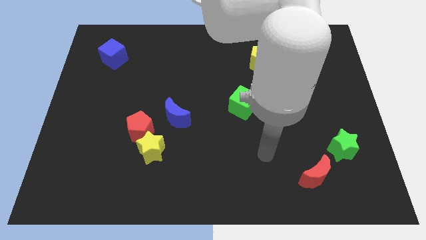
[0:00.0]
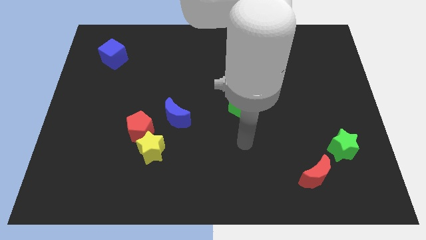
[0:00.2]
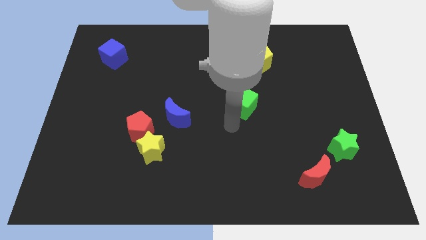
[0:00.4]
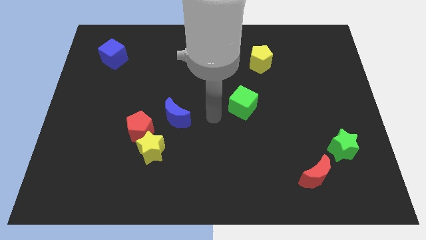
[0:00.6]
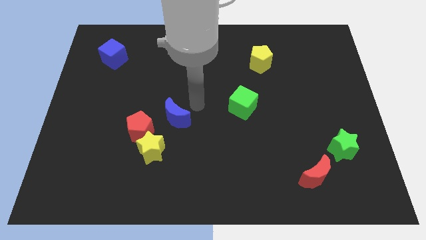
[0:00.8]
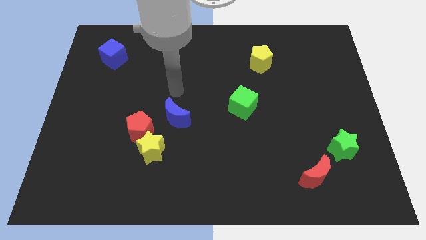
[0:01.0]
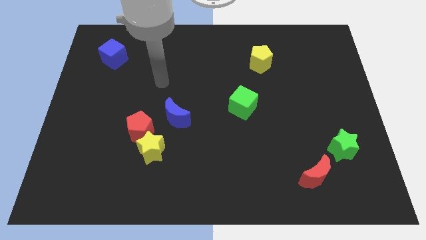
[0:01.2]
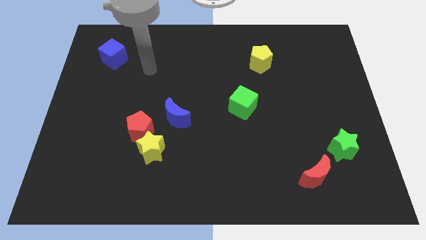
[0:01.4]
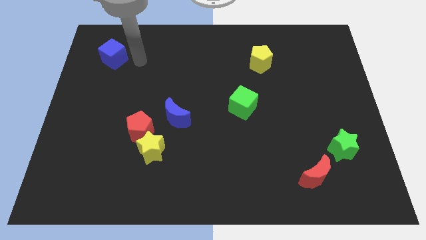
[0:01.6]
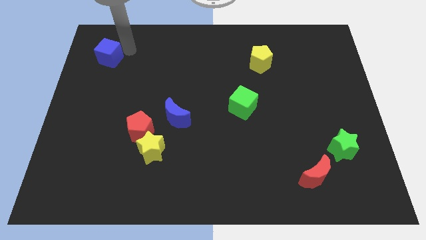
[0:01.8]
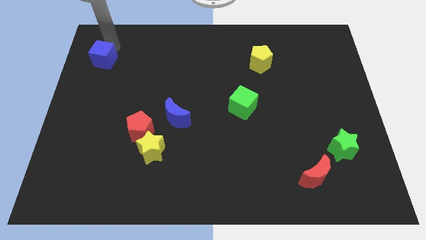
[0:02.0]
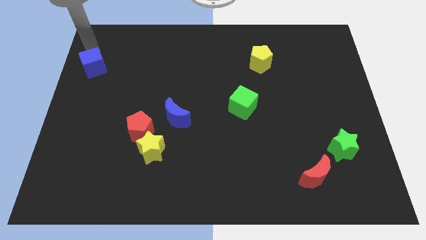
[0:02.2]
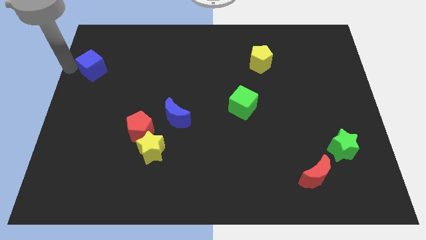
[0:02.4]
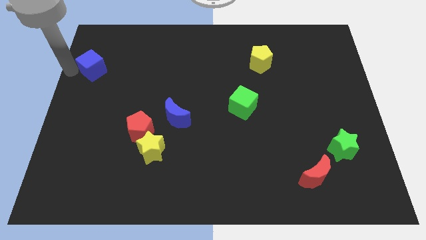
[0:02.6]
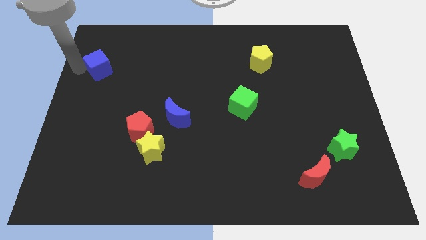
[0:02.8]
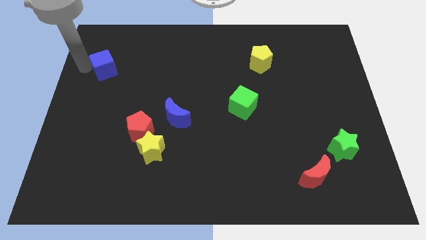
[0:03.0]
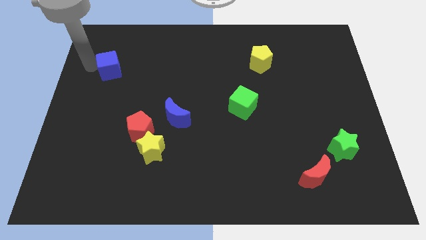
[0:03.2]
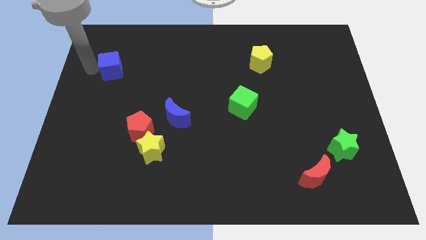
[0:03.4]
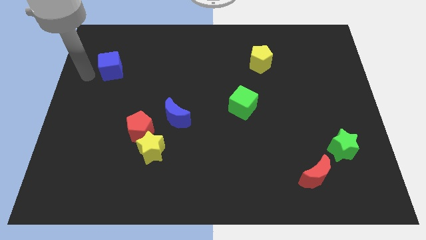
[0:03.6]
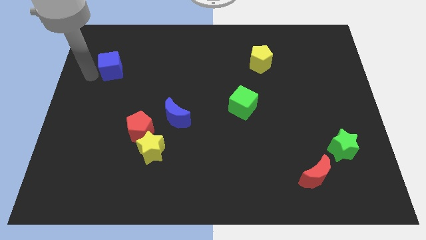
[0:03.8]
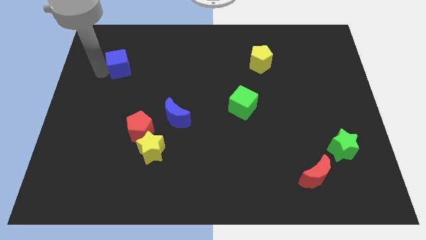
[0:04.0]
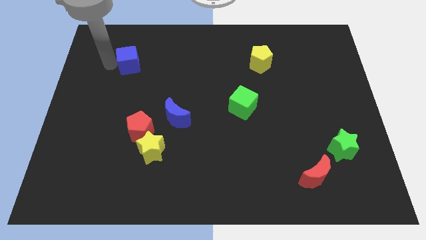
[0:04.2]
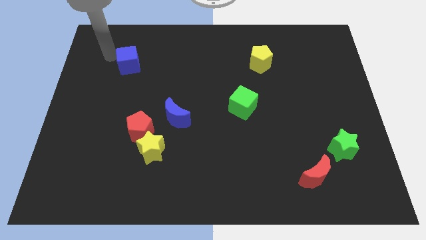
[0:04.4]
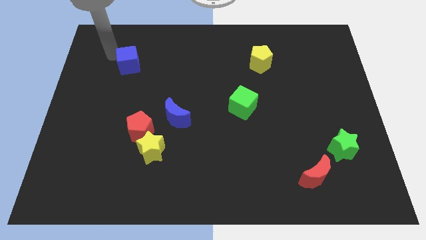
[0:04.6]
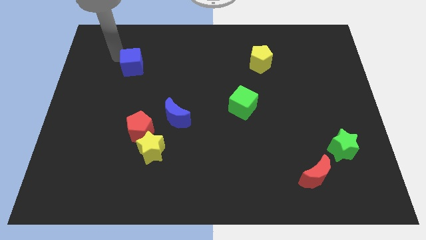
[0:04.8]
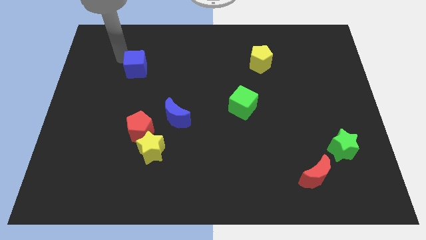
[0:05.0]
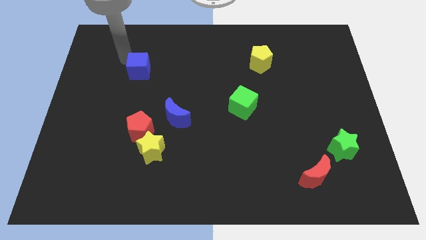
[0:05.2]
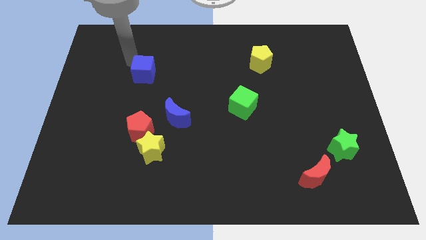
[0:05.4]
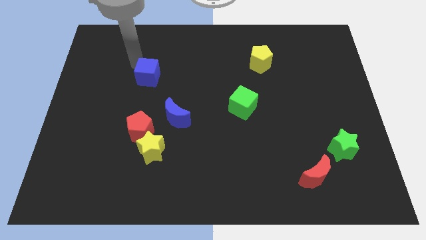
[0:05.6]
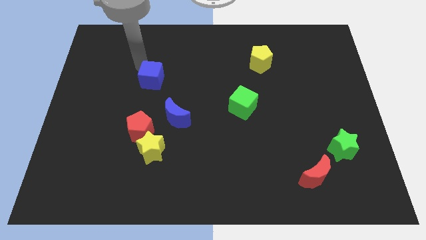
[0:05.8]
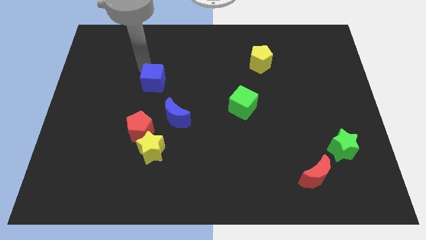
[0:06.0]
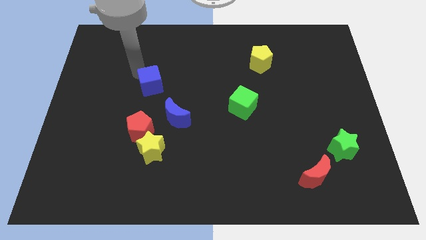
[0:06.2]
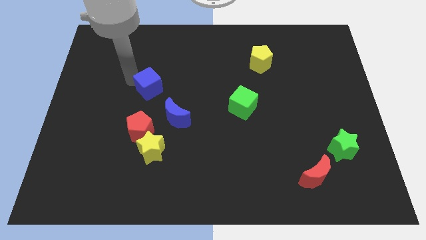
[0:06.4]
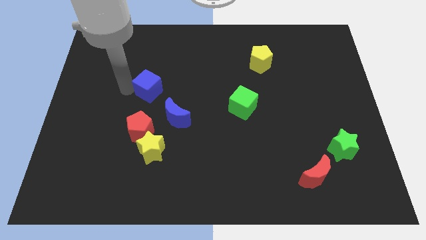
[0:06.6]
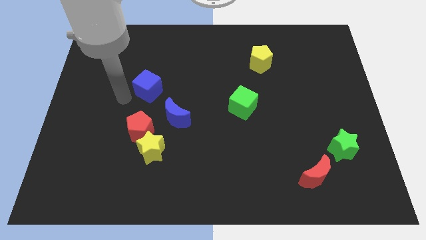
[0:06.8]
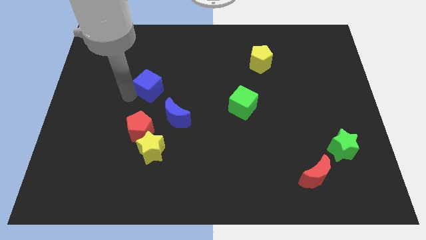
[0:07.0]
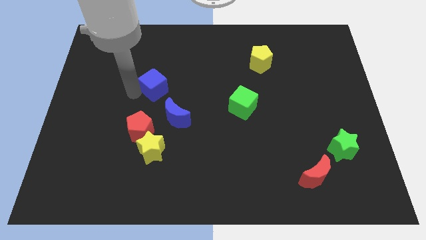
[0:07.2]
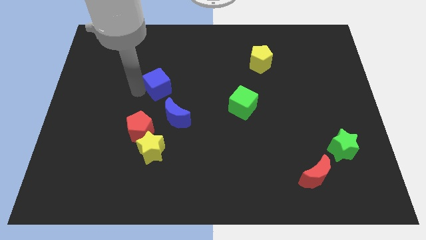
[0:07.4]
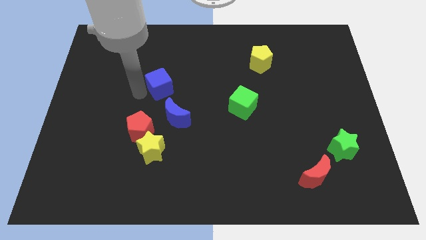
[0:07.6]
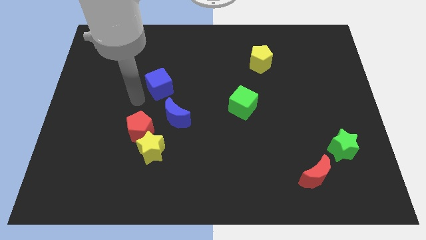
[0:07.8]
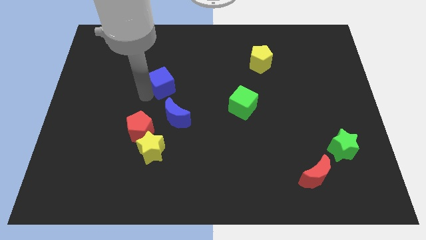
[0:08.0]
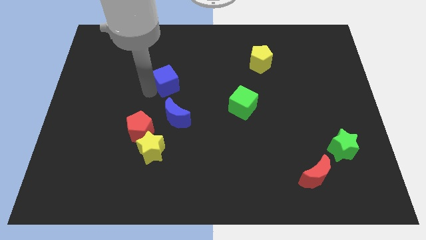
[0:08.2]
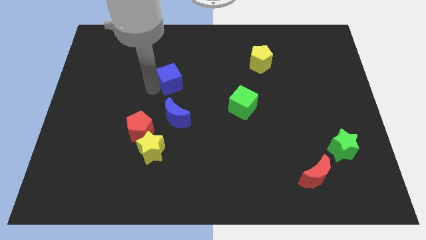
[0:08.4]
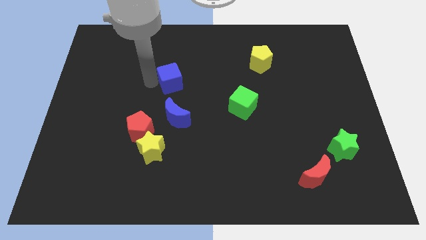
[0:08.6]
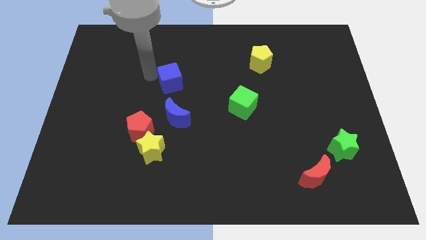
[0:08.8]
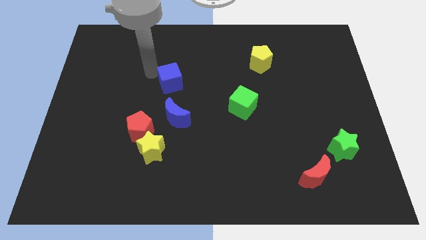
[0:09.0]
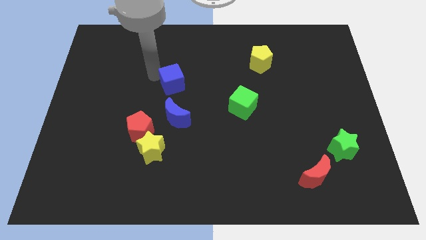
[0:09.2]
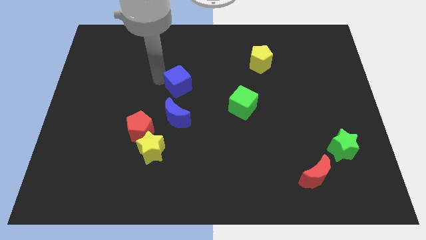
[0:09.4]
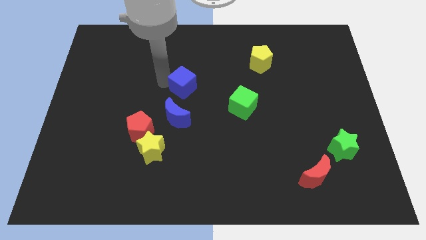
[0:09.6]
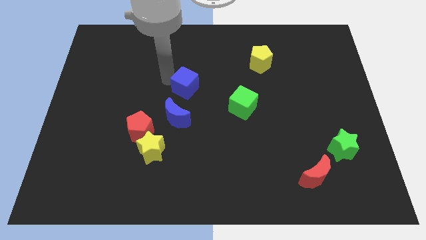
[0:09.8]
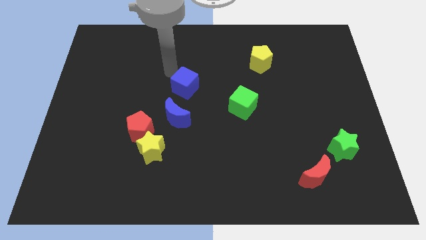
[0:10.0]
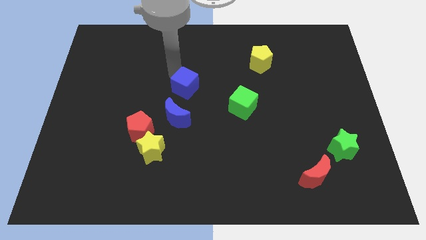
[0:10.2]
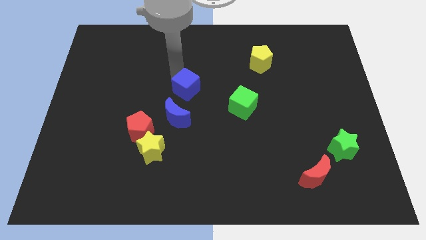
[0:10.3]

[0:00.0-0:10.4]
move the blue cube diagonally up and to the right of the blue moon

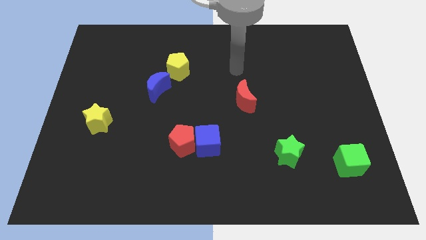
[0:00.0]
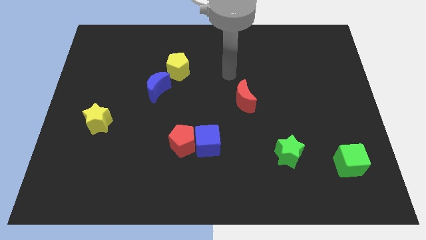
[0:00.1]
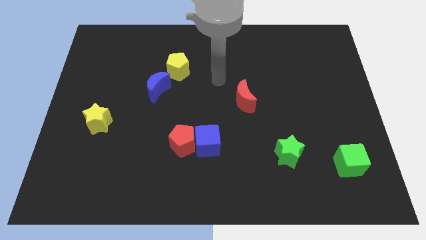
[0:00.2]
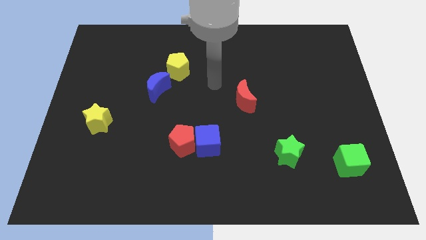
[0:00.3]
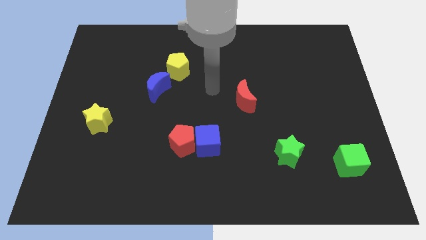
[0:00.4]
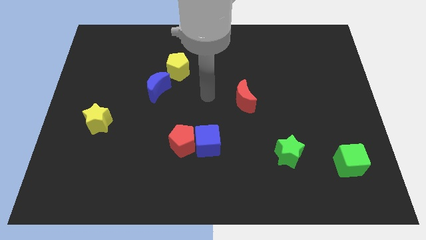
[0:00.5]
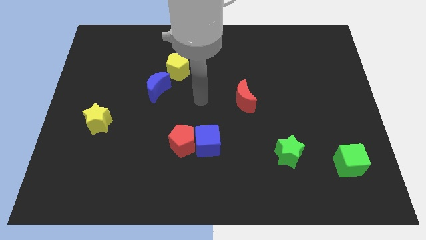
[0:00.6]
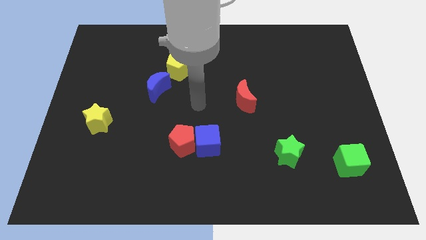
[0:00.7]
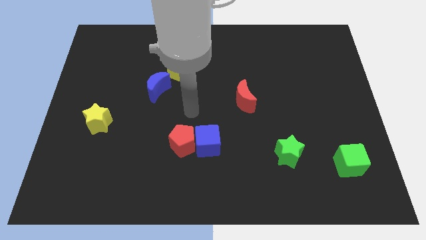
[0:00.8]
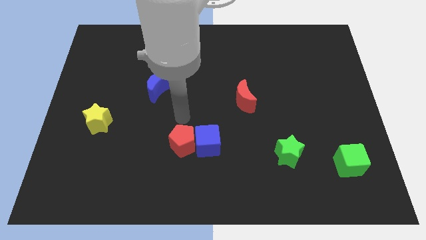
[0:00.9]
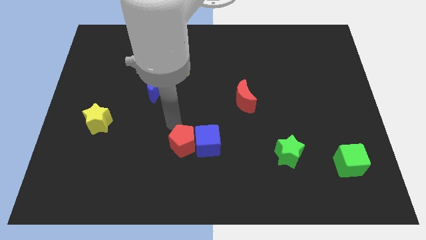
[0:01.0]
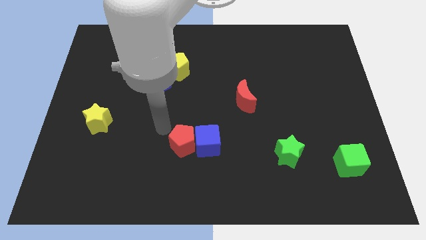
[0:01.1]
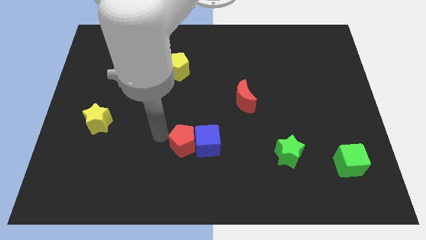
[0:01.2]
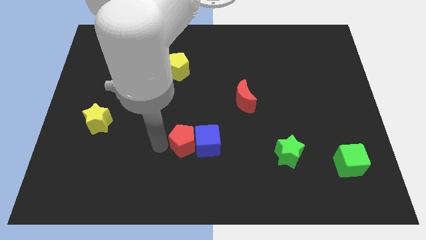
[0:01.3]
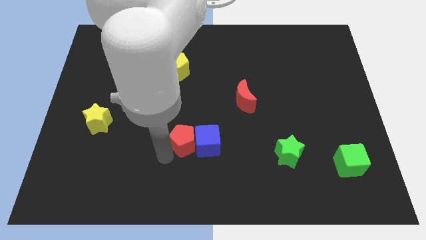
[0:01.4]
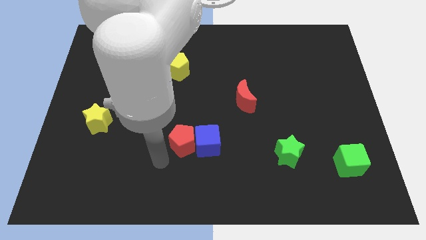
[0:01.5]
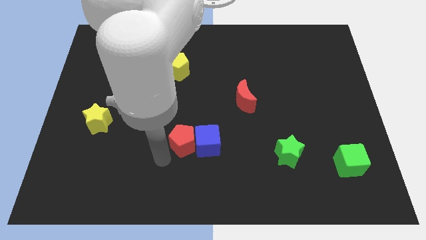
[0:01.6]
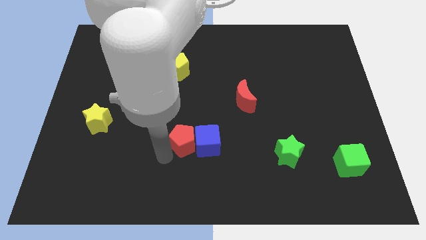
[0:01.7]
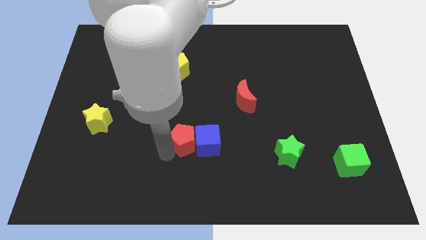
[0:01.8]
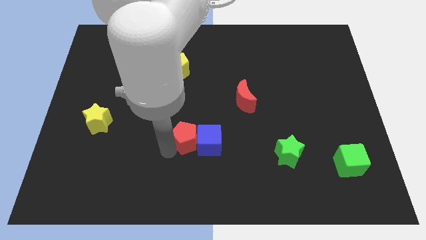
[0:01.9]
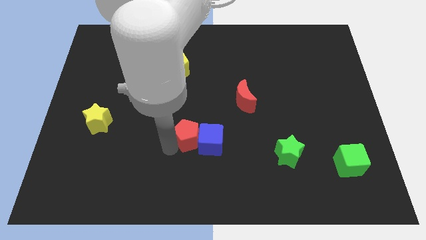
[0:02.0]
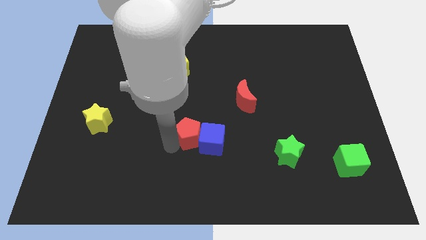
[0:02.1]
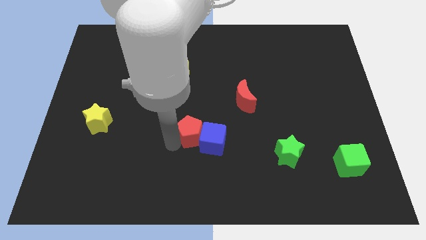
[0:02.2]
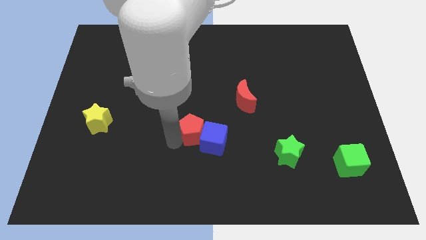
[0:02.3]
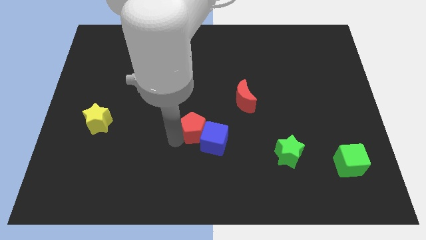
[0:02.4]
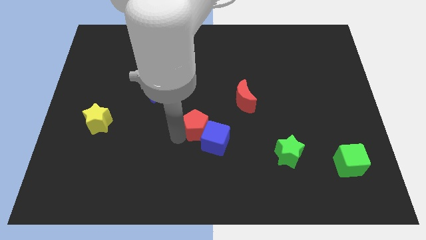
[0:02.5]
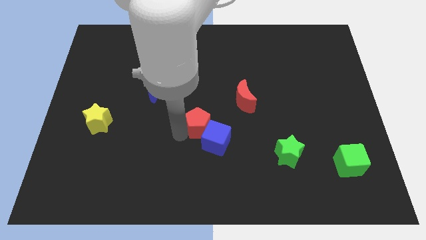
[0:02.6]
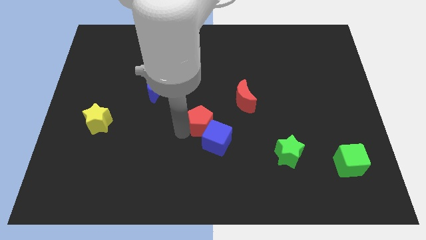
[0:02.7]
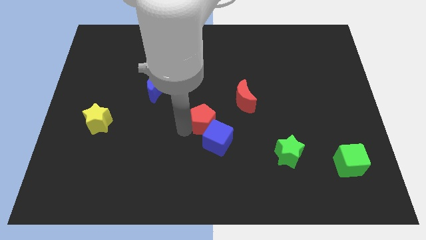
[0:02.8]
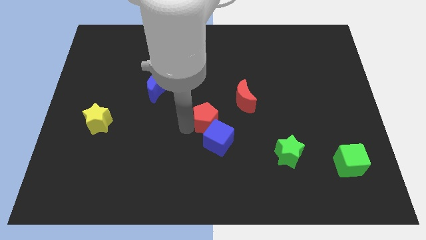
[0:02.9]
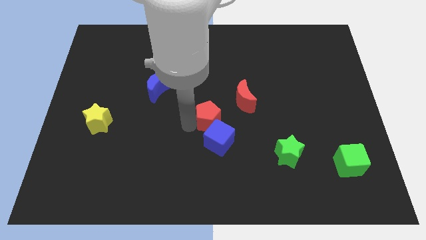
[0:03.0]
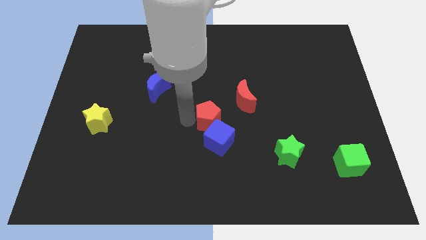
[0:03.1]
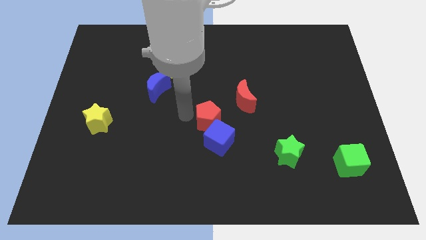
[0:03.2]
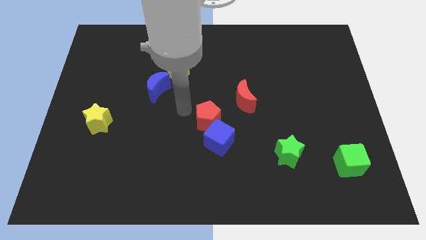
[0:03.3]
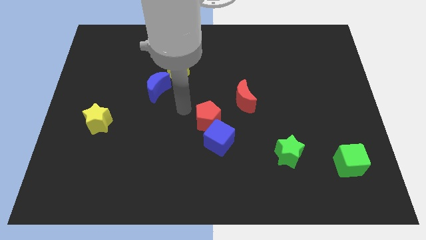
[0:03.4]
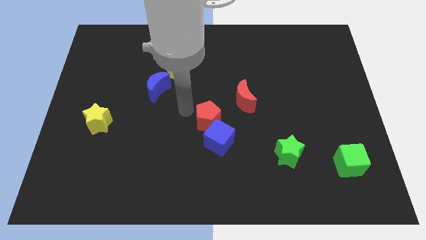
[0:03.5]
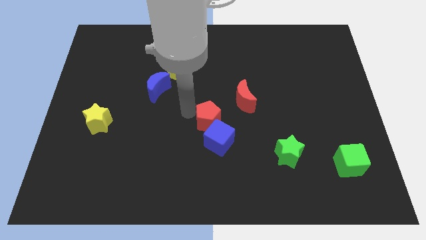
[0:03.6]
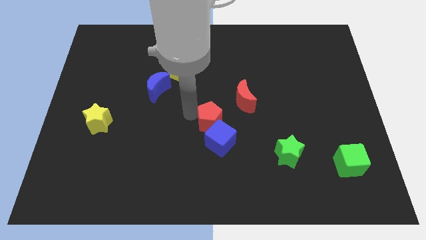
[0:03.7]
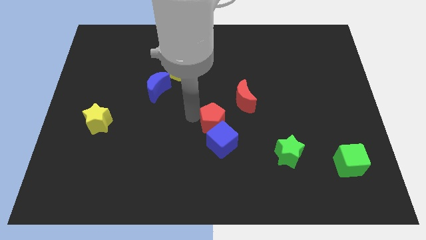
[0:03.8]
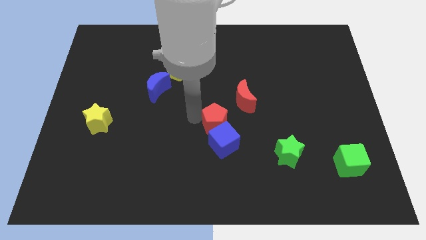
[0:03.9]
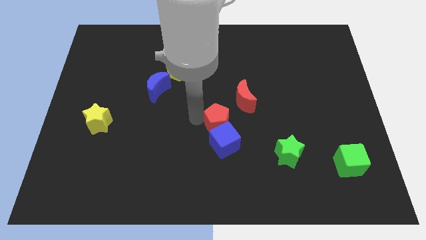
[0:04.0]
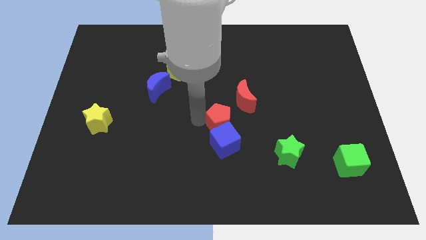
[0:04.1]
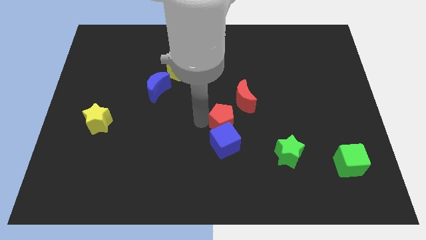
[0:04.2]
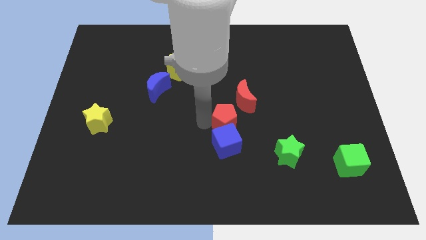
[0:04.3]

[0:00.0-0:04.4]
move the red pentagon below the red moon
